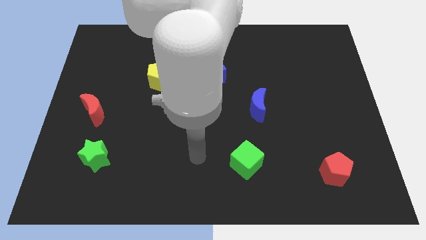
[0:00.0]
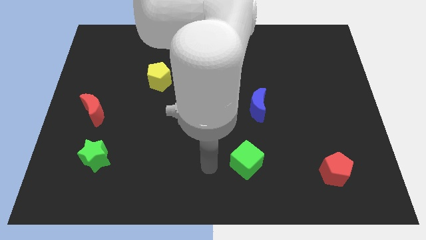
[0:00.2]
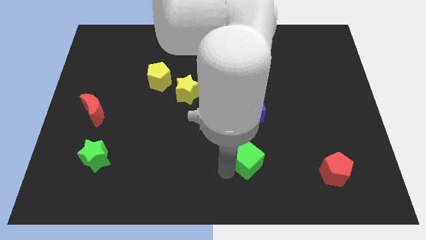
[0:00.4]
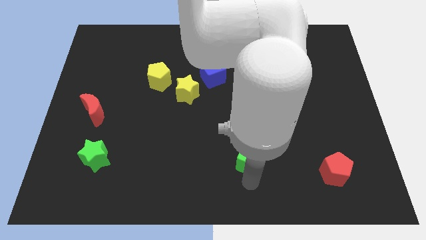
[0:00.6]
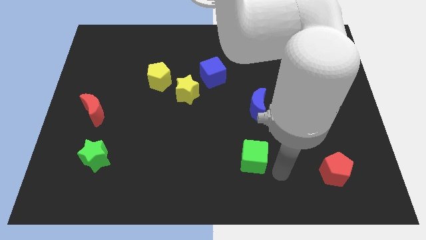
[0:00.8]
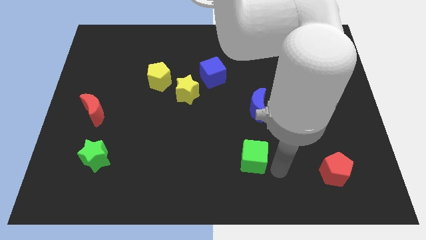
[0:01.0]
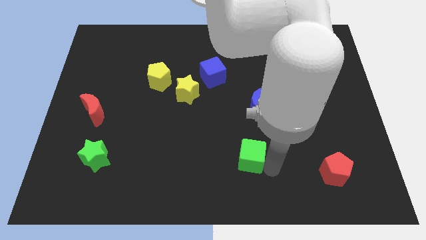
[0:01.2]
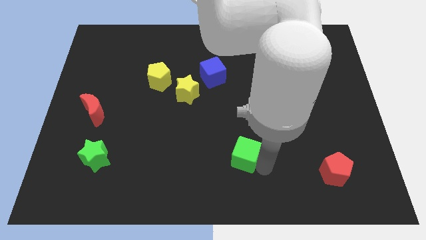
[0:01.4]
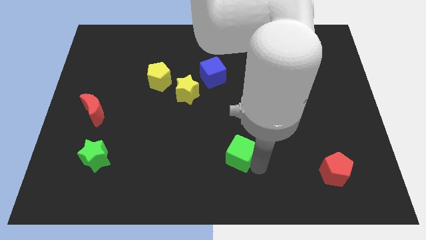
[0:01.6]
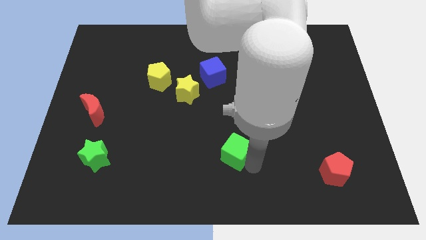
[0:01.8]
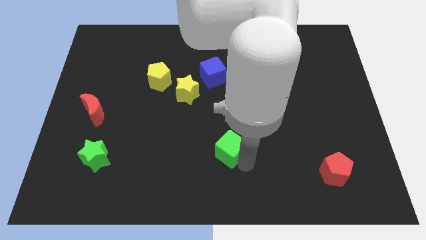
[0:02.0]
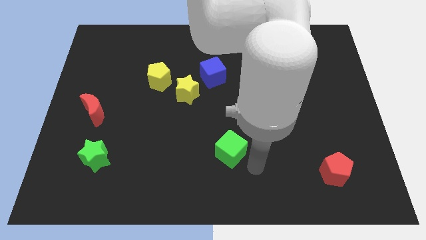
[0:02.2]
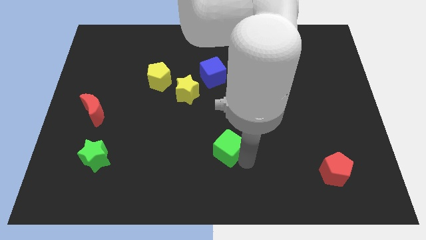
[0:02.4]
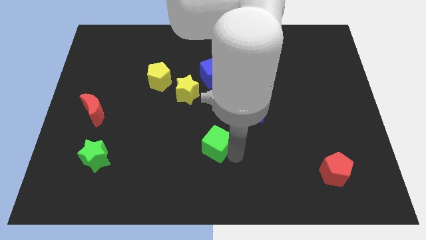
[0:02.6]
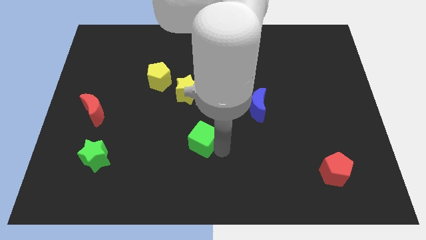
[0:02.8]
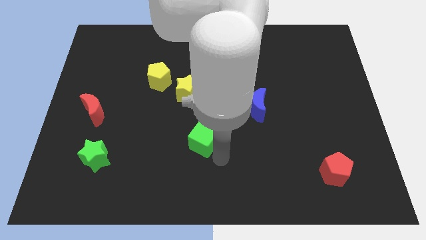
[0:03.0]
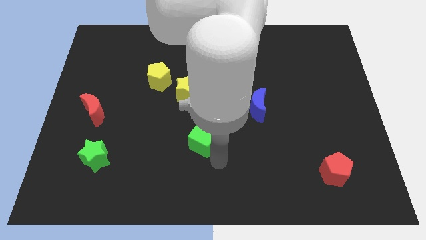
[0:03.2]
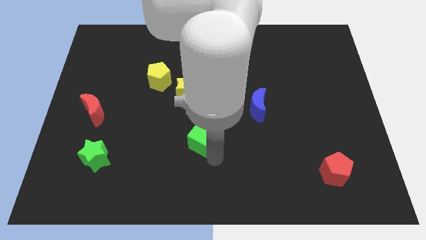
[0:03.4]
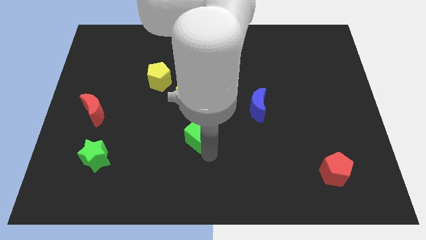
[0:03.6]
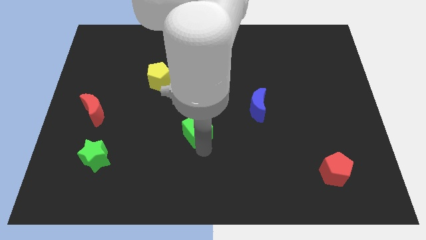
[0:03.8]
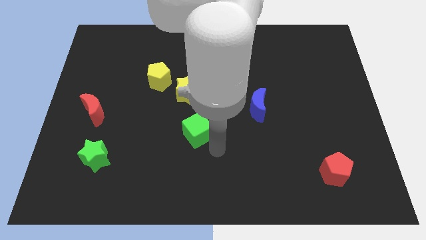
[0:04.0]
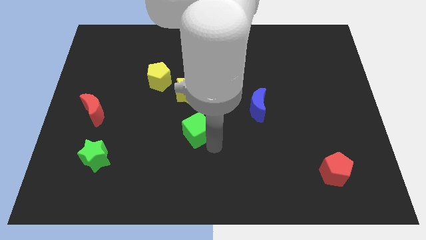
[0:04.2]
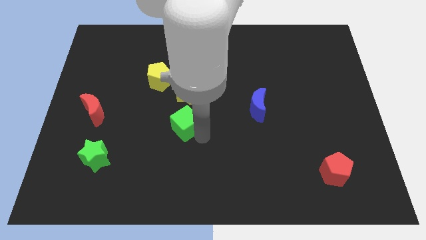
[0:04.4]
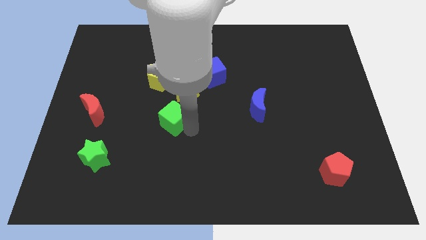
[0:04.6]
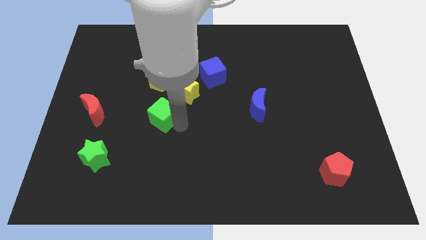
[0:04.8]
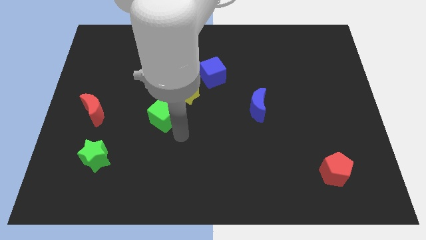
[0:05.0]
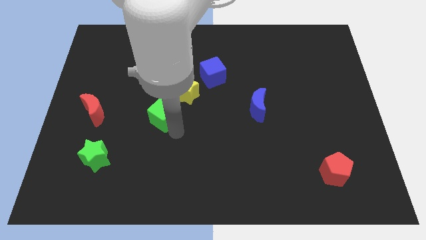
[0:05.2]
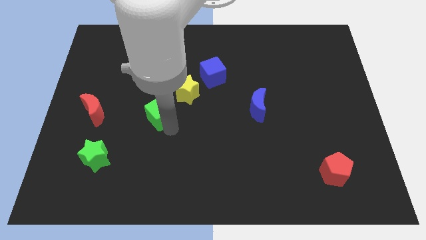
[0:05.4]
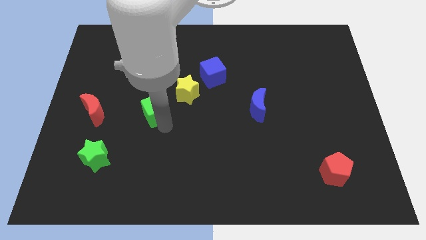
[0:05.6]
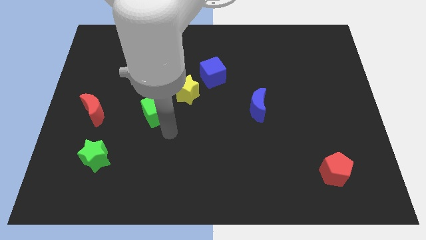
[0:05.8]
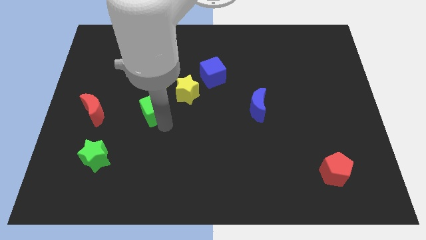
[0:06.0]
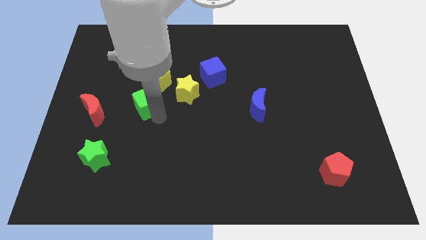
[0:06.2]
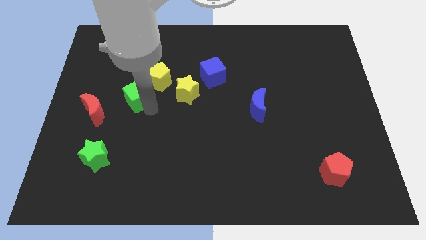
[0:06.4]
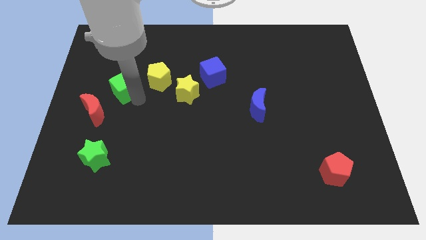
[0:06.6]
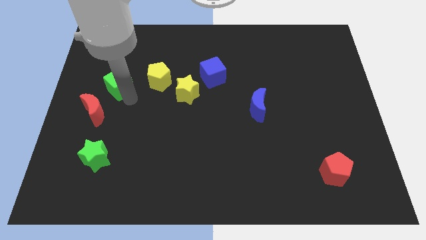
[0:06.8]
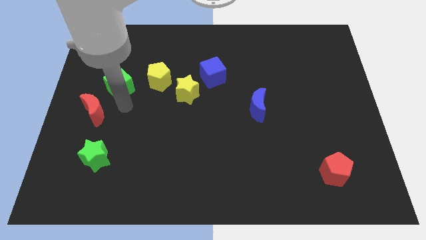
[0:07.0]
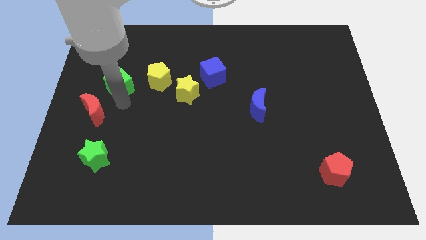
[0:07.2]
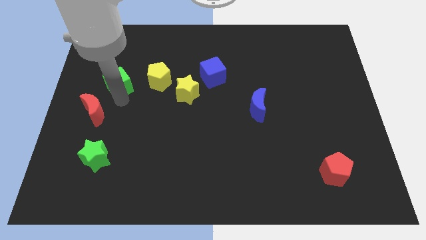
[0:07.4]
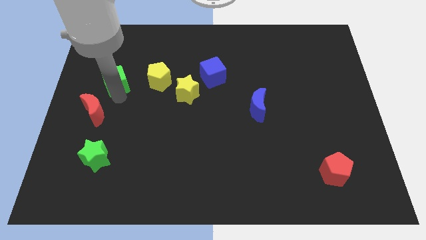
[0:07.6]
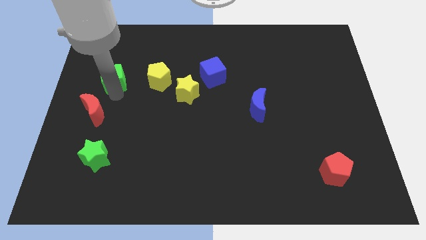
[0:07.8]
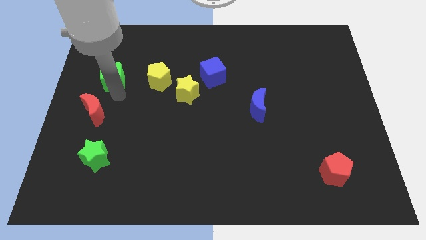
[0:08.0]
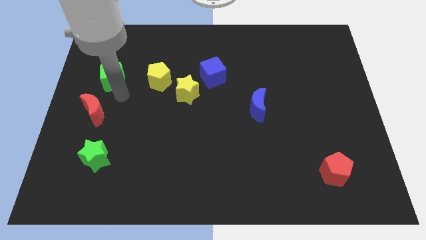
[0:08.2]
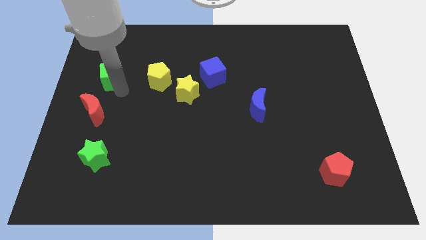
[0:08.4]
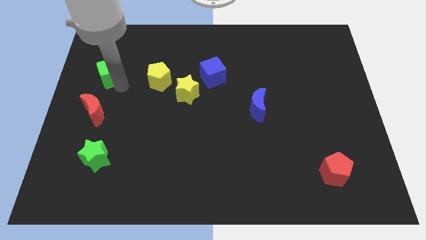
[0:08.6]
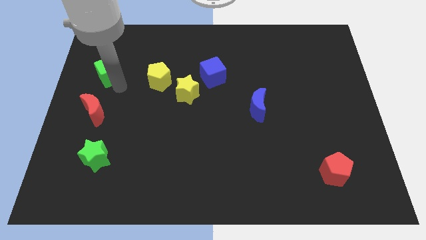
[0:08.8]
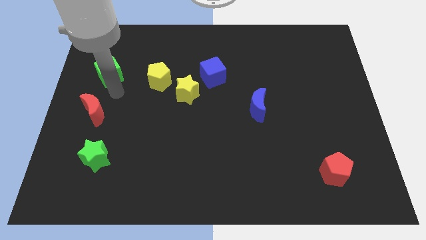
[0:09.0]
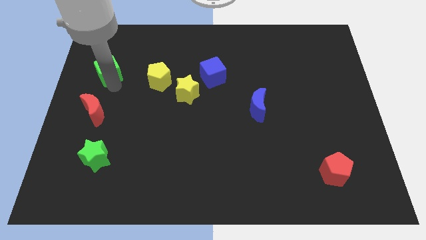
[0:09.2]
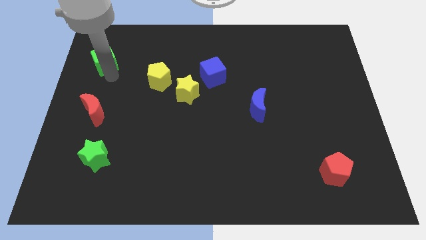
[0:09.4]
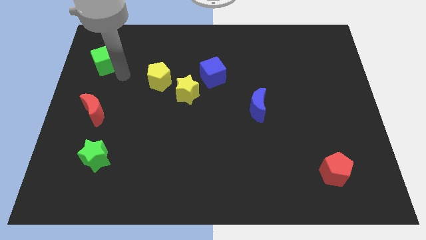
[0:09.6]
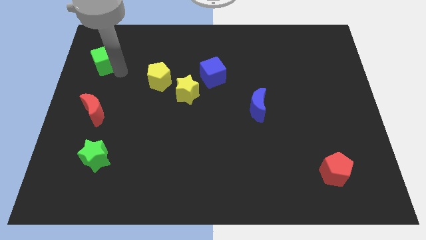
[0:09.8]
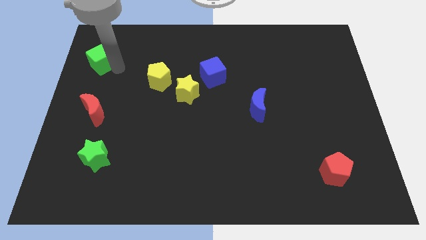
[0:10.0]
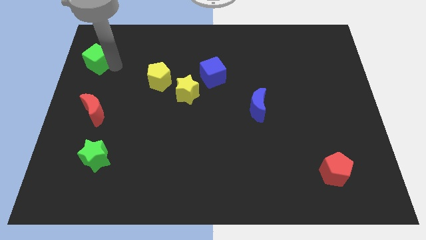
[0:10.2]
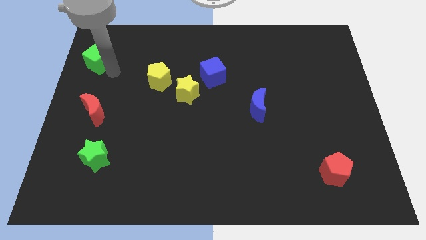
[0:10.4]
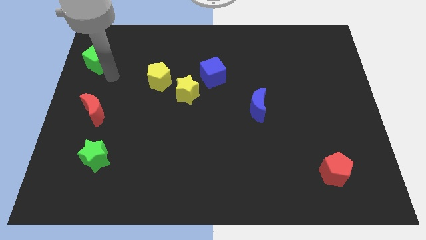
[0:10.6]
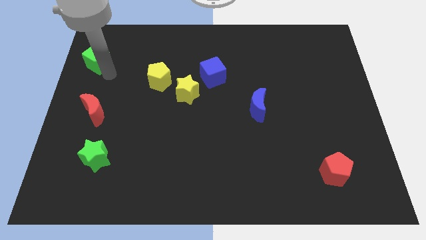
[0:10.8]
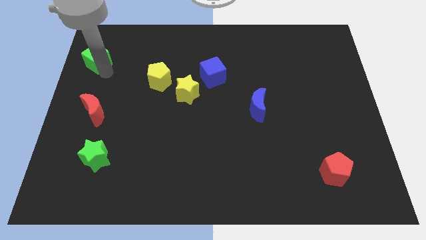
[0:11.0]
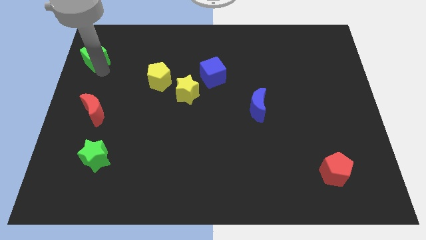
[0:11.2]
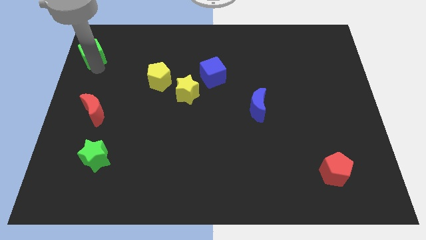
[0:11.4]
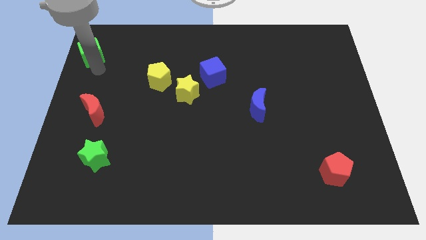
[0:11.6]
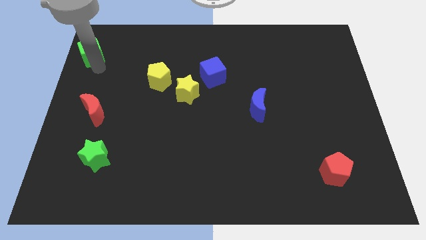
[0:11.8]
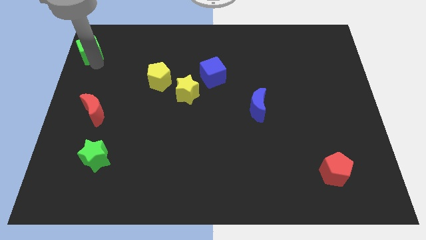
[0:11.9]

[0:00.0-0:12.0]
move the green cube to the top left
